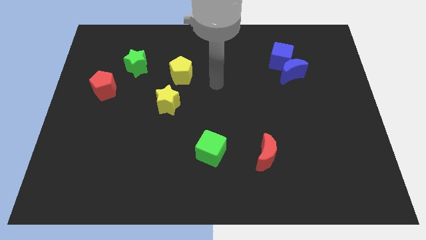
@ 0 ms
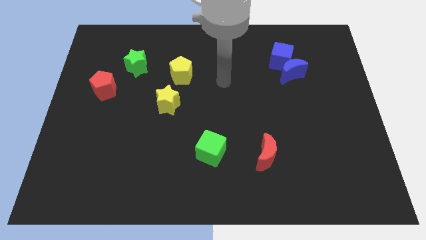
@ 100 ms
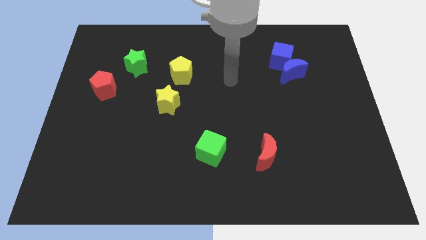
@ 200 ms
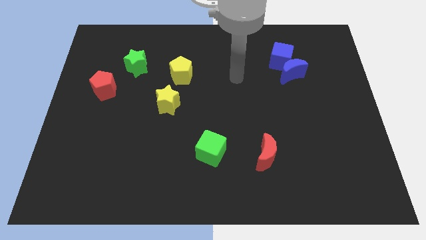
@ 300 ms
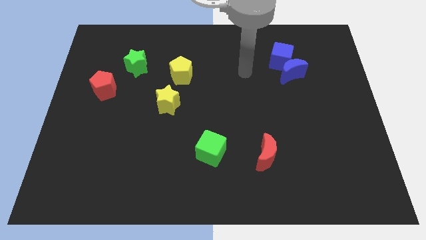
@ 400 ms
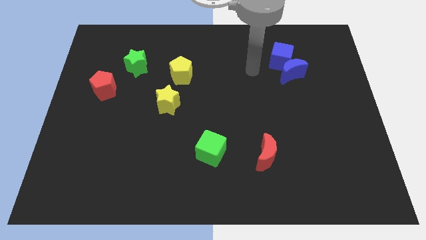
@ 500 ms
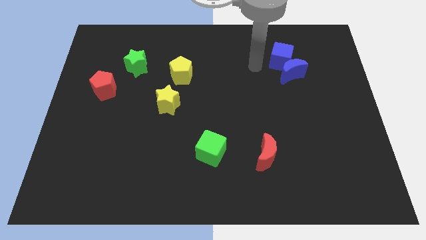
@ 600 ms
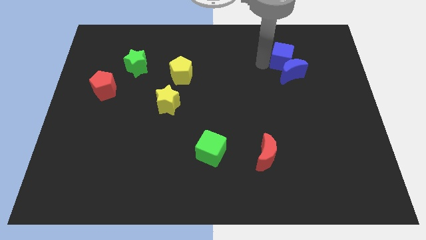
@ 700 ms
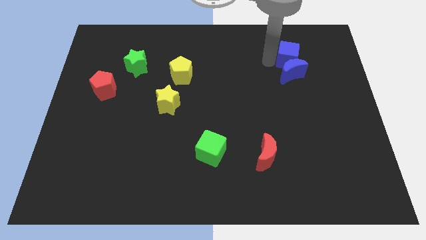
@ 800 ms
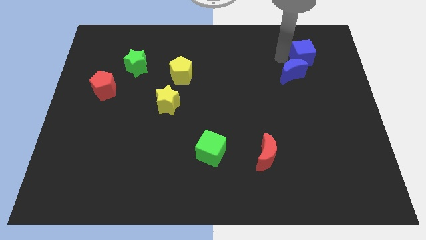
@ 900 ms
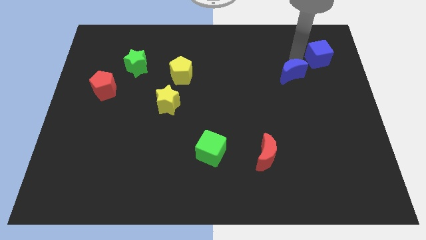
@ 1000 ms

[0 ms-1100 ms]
pull the blue moon apart from the blue cube

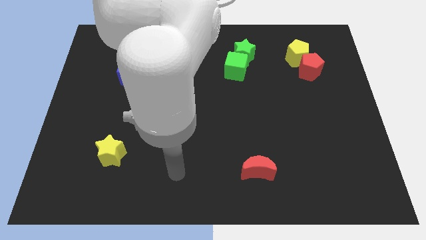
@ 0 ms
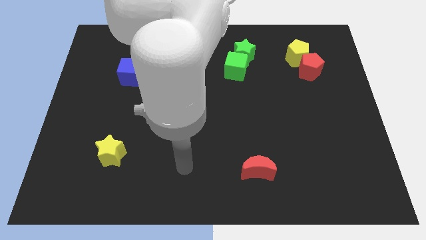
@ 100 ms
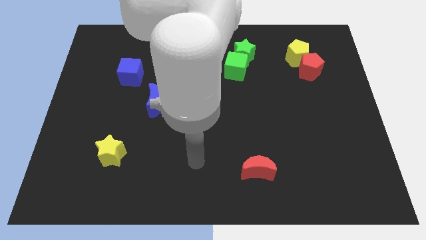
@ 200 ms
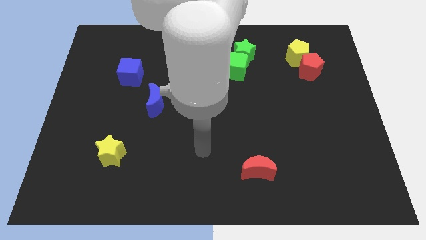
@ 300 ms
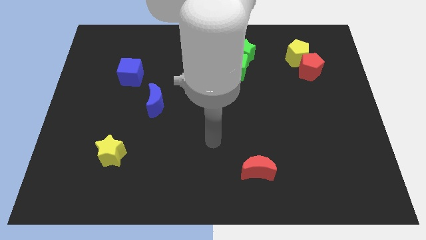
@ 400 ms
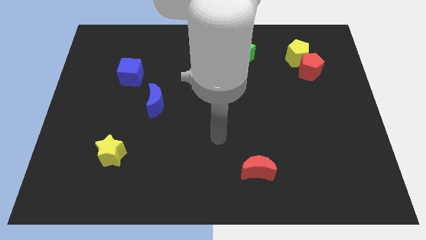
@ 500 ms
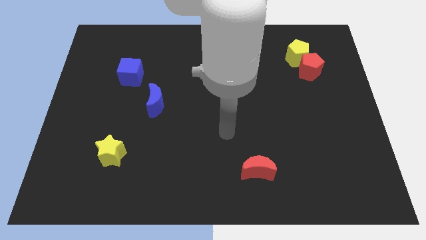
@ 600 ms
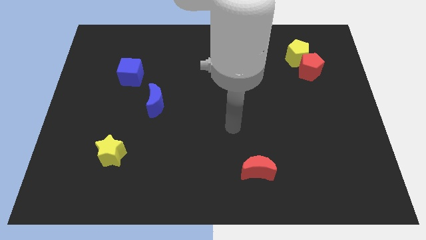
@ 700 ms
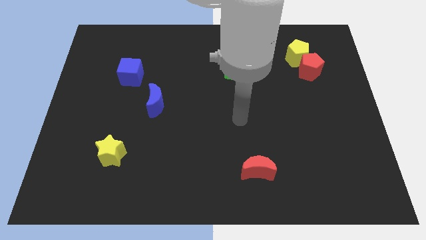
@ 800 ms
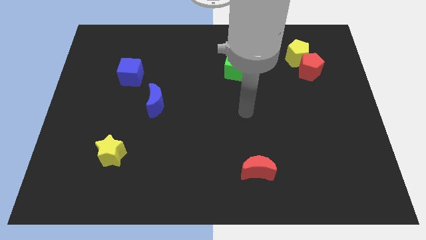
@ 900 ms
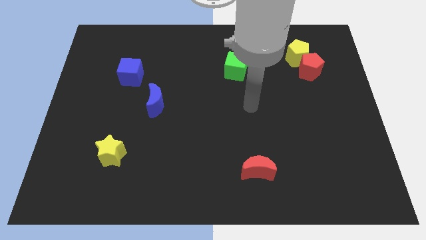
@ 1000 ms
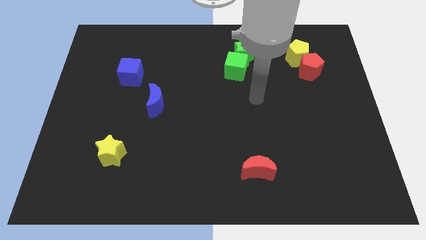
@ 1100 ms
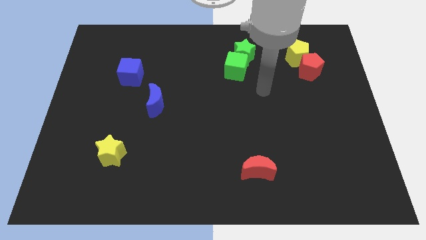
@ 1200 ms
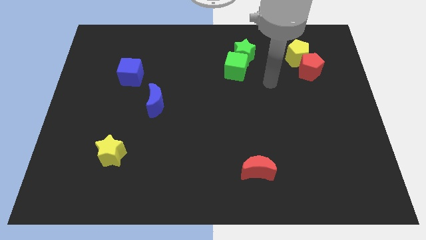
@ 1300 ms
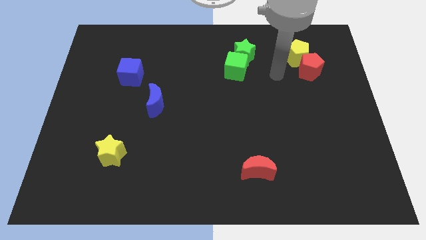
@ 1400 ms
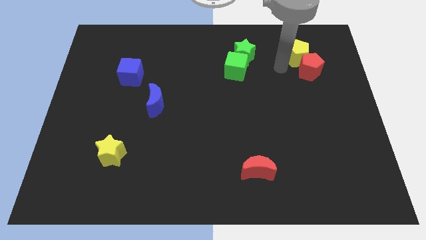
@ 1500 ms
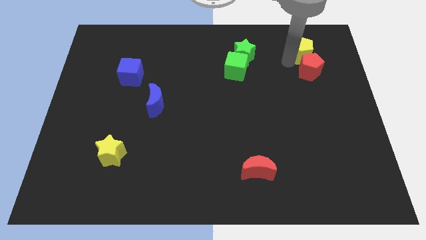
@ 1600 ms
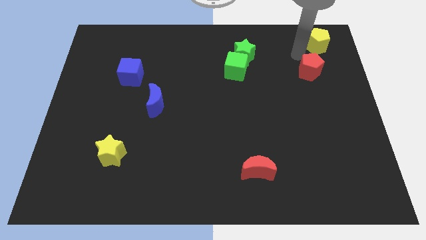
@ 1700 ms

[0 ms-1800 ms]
separate the red pentagon from the yellow pentagon

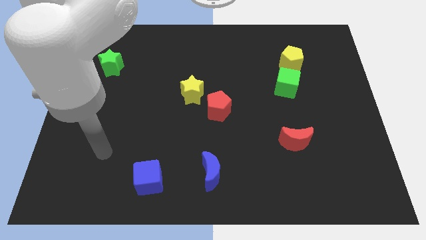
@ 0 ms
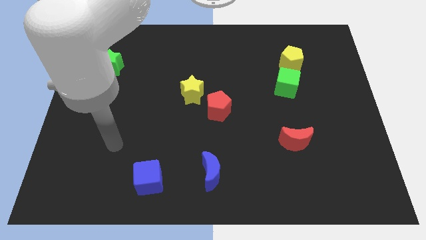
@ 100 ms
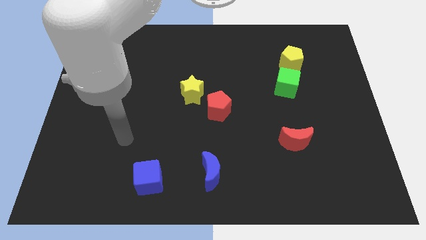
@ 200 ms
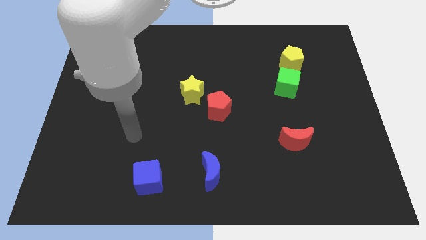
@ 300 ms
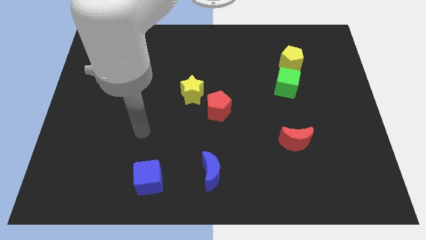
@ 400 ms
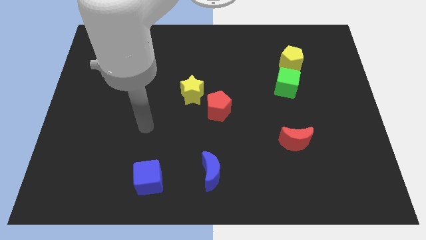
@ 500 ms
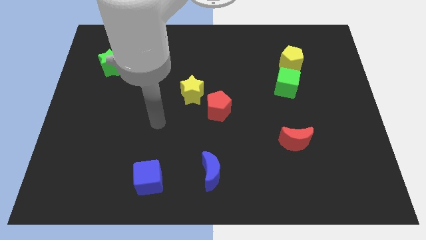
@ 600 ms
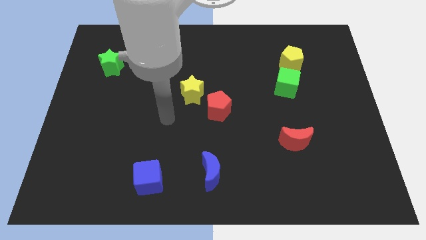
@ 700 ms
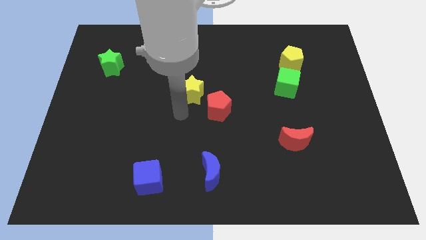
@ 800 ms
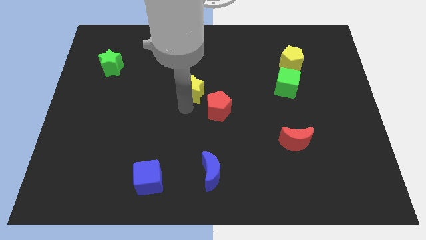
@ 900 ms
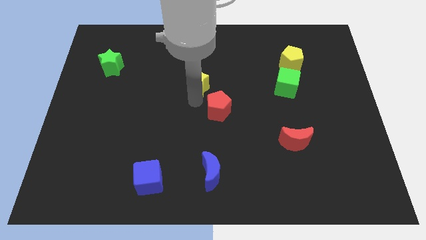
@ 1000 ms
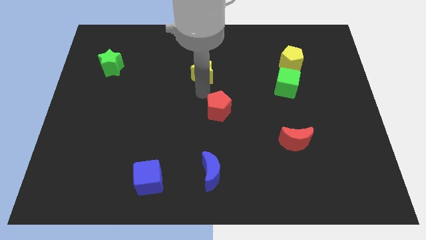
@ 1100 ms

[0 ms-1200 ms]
pull the red pentagon apart from the yellow star

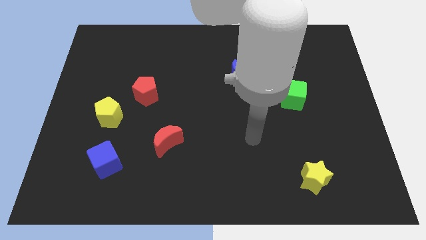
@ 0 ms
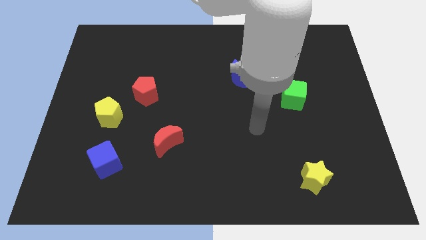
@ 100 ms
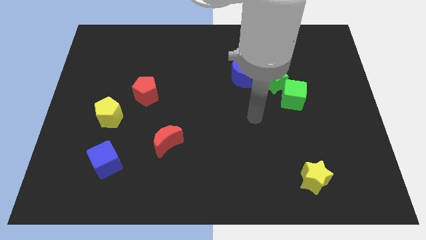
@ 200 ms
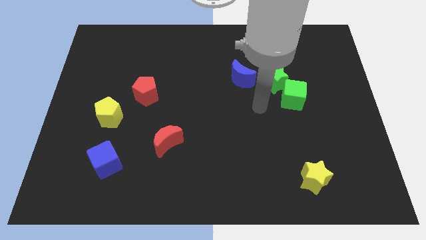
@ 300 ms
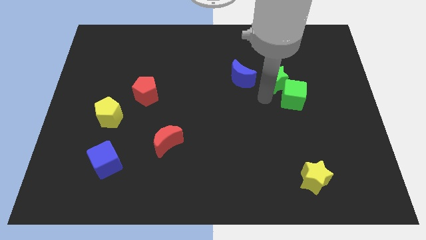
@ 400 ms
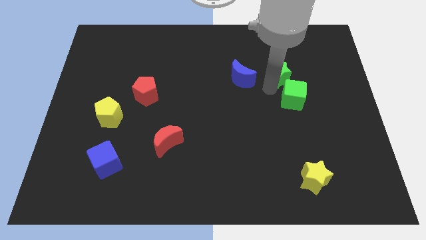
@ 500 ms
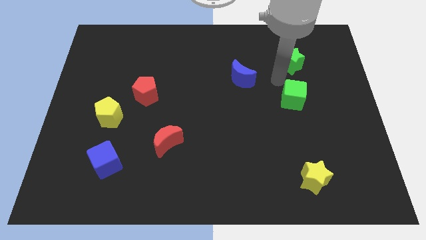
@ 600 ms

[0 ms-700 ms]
move the green cube away from the green star

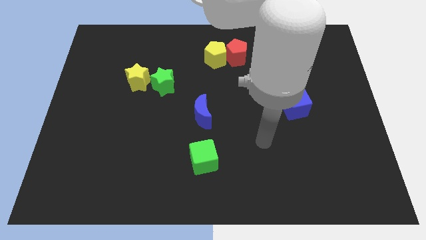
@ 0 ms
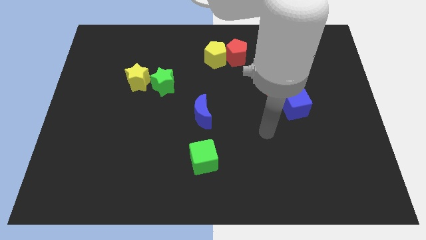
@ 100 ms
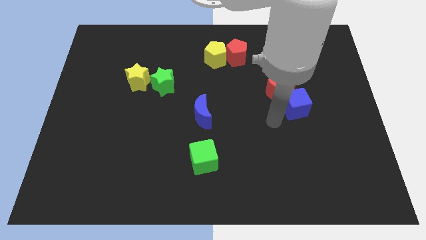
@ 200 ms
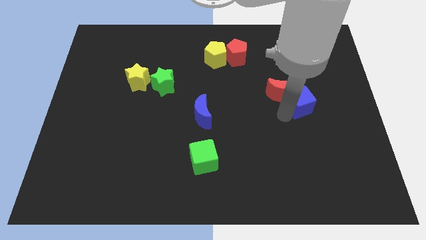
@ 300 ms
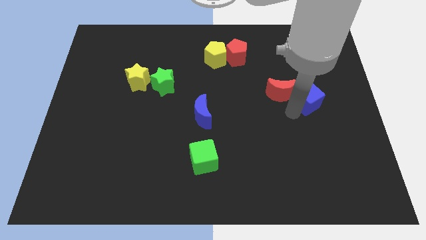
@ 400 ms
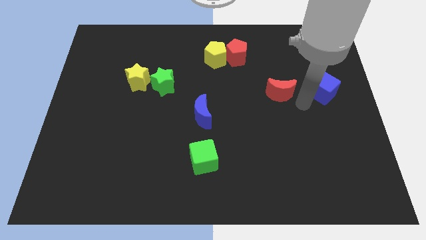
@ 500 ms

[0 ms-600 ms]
separate the red moon from the blue cube

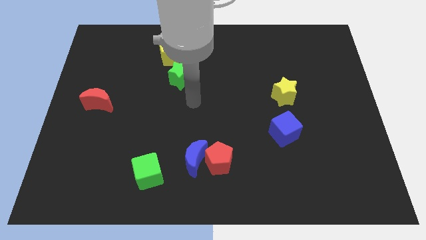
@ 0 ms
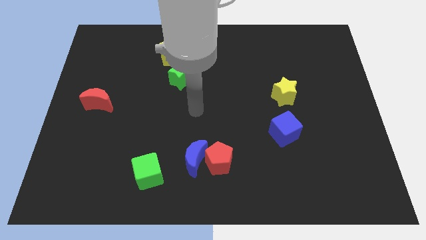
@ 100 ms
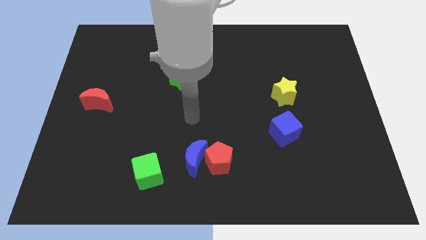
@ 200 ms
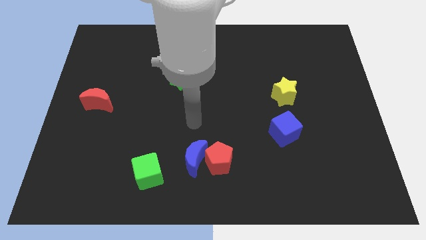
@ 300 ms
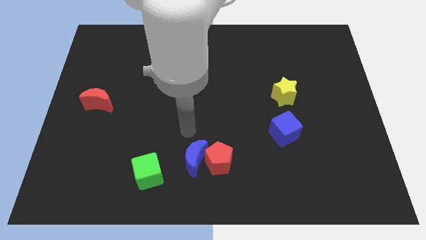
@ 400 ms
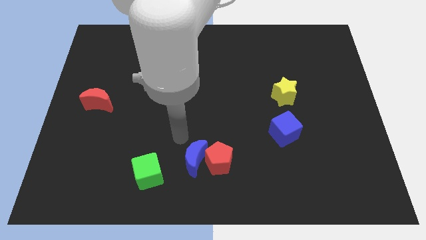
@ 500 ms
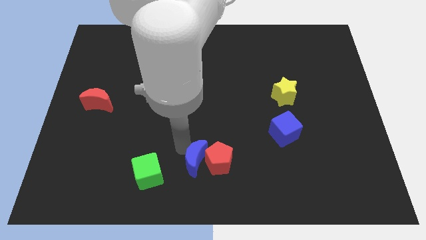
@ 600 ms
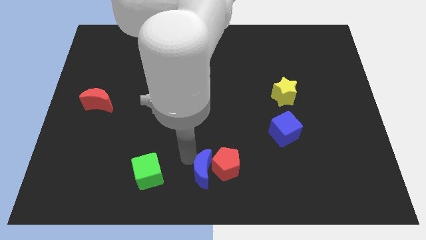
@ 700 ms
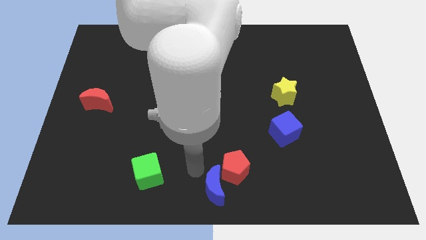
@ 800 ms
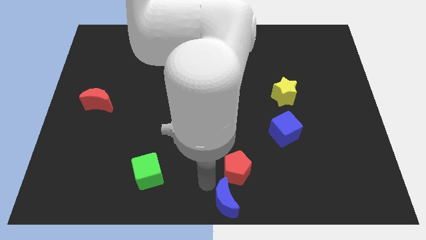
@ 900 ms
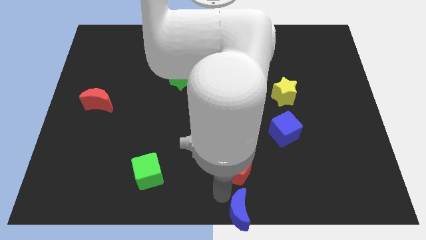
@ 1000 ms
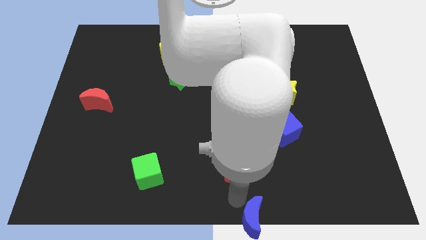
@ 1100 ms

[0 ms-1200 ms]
move the red pentagon away from the blue moon

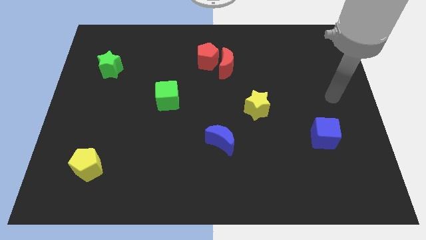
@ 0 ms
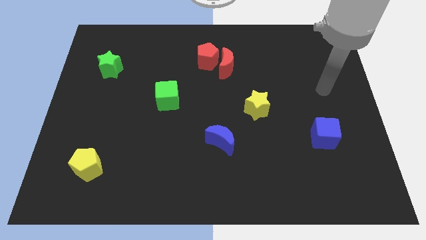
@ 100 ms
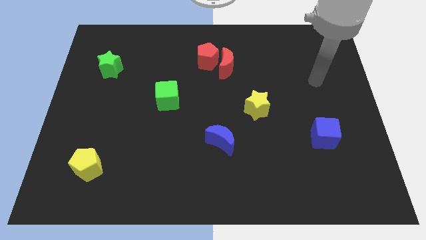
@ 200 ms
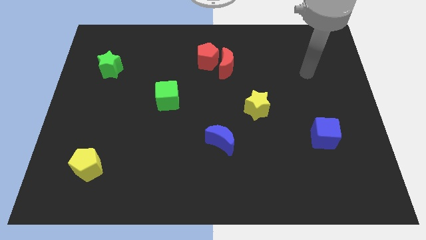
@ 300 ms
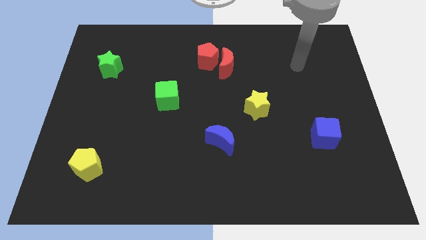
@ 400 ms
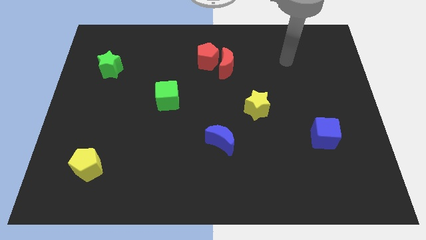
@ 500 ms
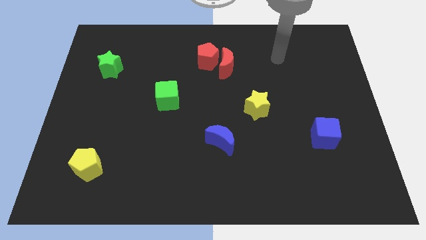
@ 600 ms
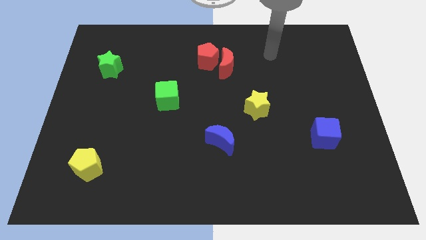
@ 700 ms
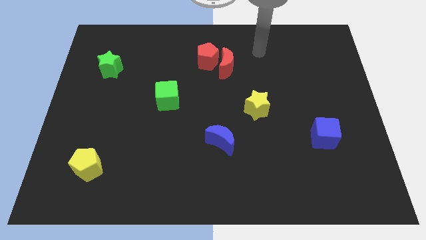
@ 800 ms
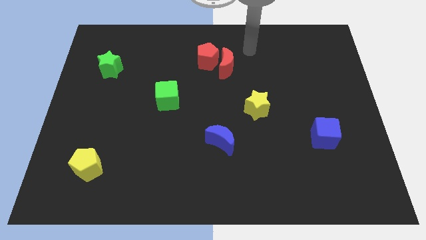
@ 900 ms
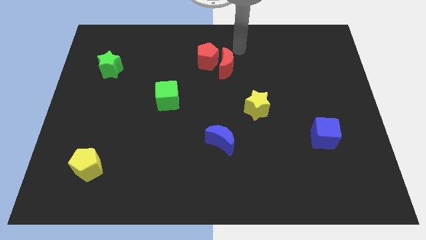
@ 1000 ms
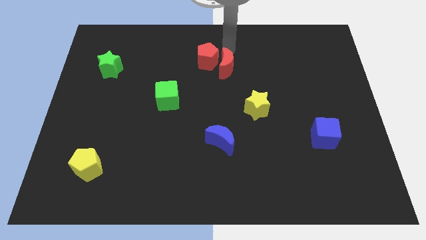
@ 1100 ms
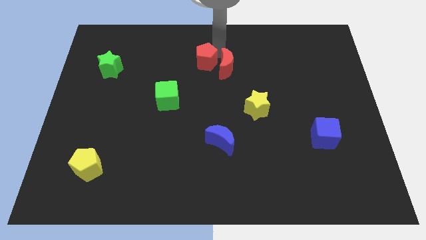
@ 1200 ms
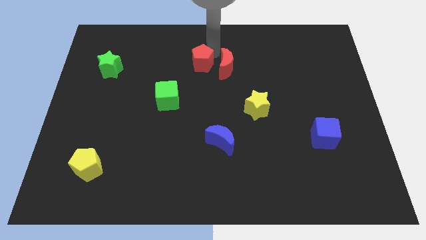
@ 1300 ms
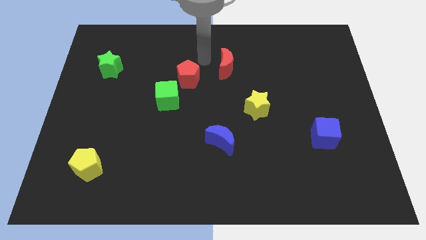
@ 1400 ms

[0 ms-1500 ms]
separate the red moon from the red pentagon

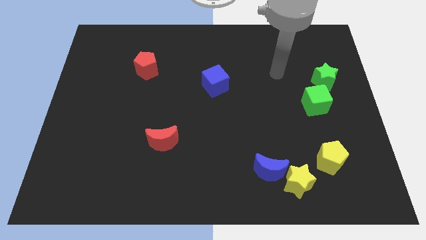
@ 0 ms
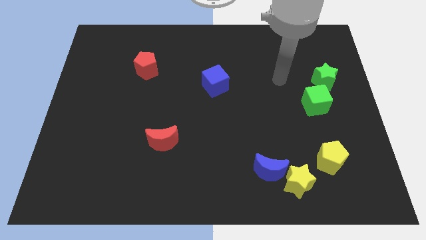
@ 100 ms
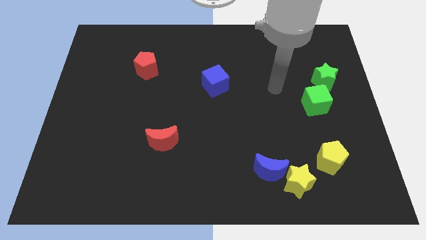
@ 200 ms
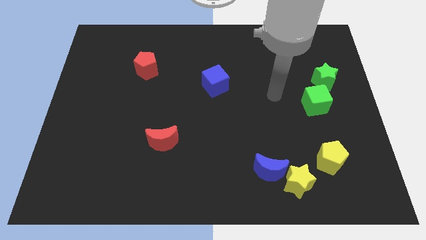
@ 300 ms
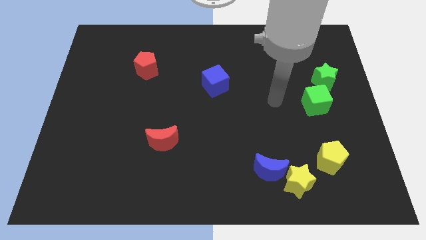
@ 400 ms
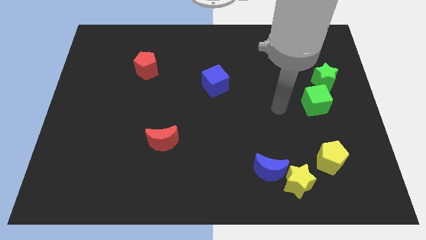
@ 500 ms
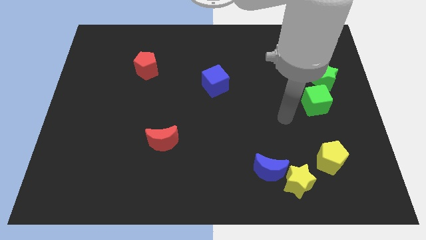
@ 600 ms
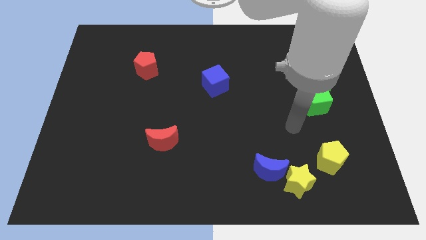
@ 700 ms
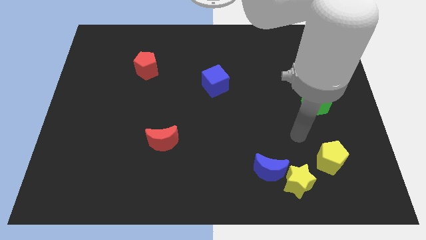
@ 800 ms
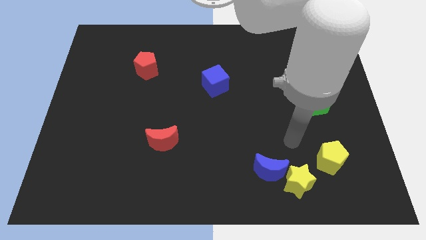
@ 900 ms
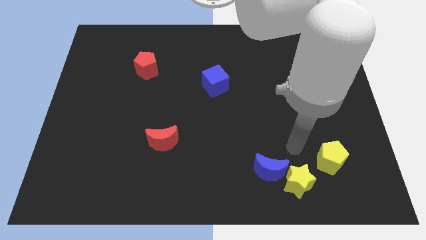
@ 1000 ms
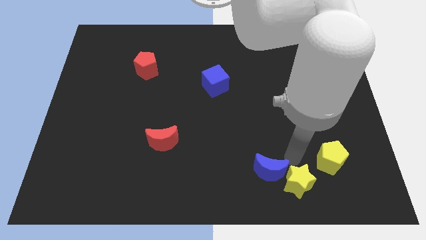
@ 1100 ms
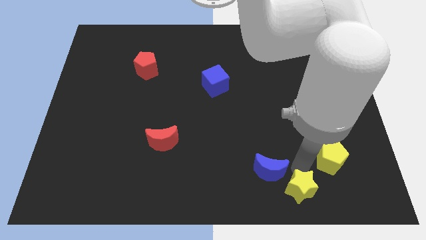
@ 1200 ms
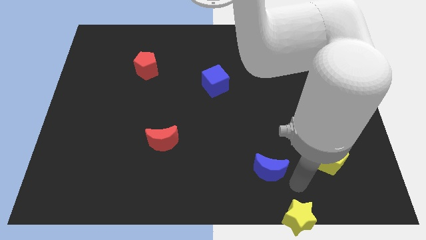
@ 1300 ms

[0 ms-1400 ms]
pull the blue moon apart from the yellow star
